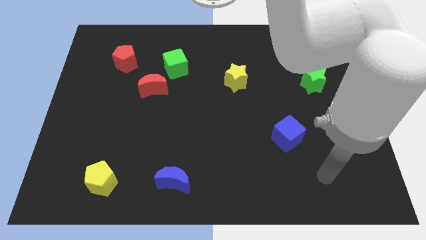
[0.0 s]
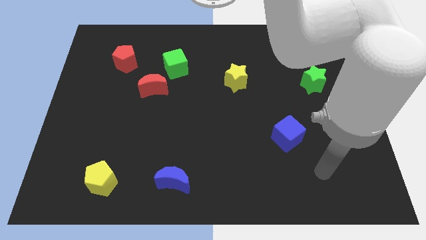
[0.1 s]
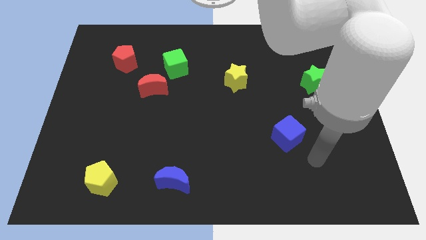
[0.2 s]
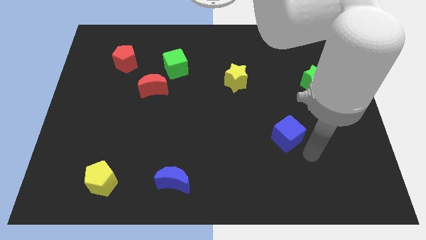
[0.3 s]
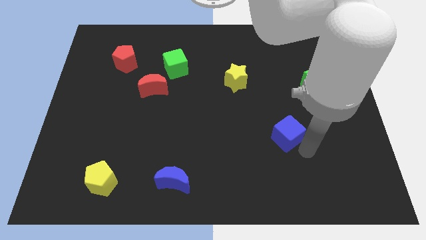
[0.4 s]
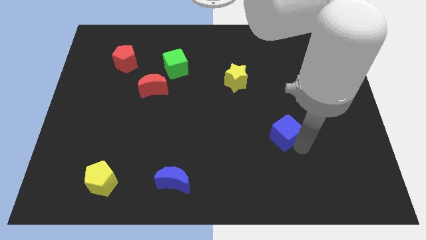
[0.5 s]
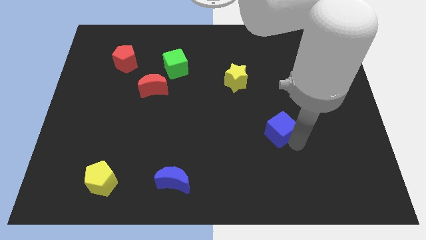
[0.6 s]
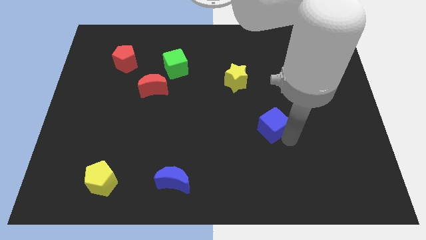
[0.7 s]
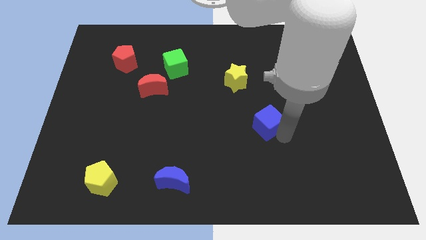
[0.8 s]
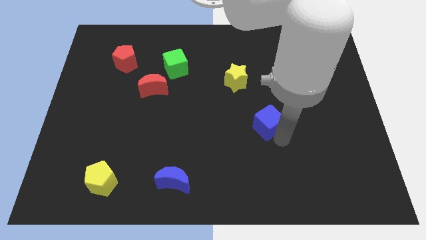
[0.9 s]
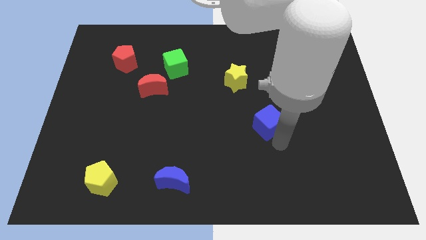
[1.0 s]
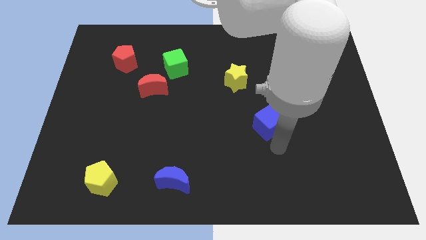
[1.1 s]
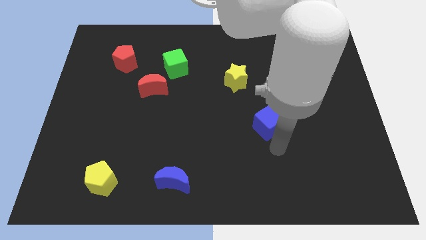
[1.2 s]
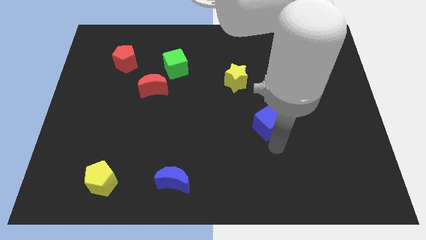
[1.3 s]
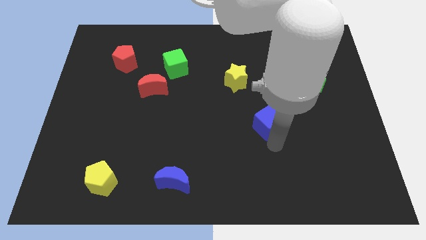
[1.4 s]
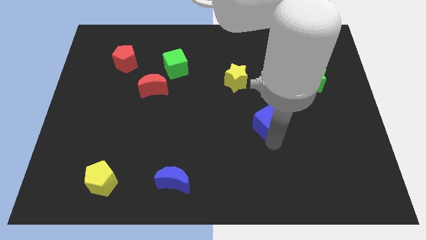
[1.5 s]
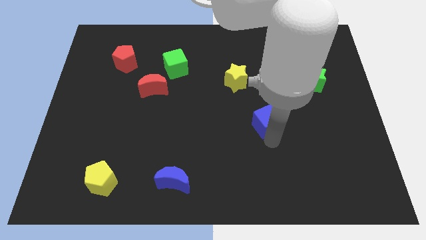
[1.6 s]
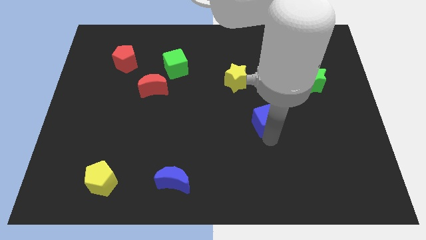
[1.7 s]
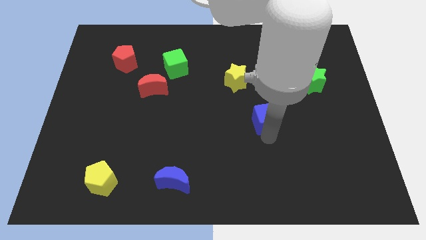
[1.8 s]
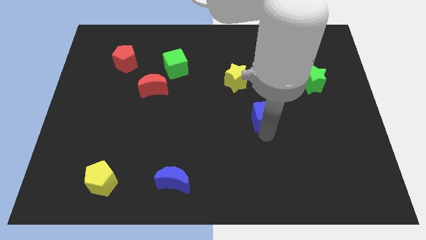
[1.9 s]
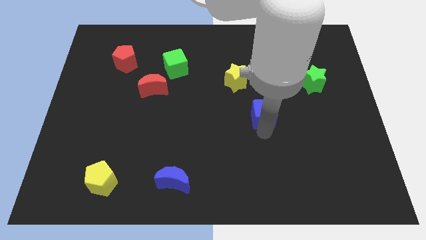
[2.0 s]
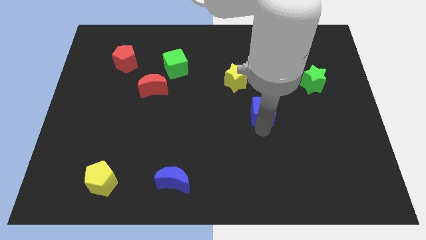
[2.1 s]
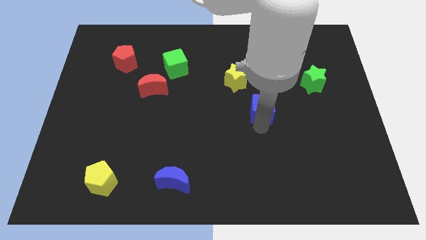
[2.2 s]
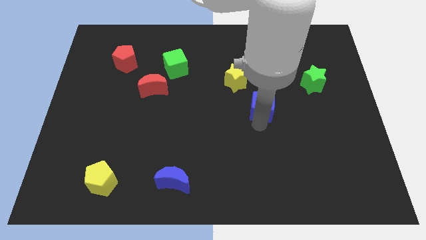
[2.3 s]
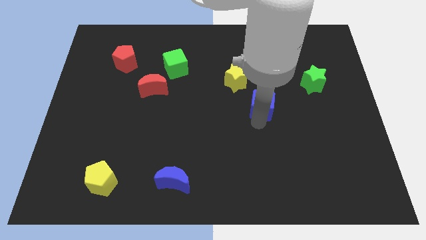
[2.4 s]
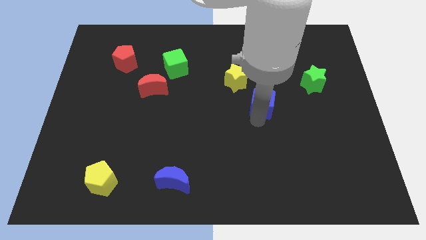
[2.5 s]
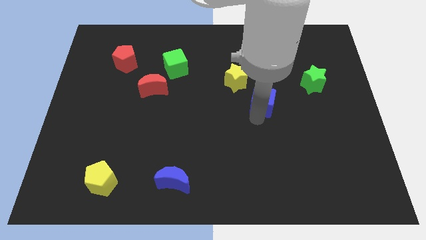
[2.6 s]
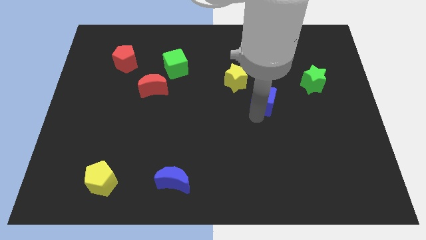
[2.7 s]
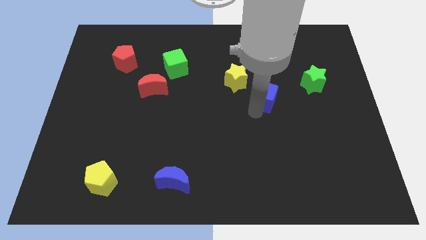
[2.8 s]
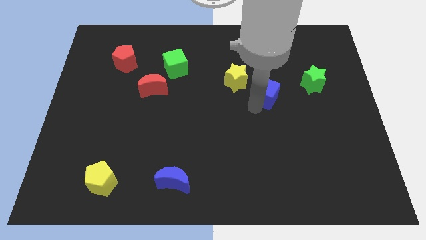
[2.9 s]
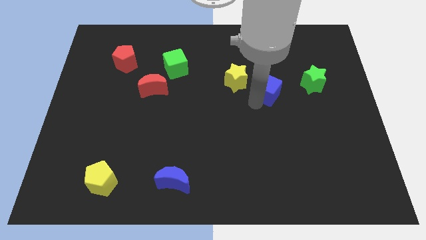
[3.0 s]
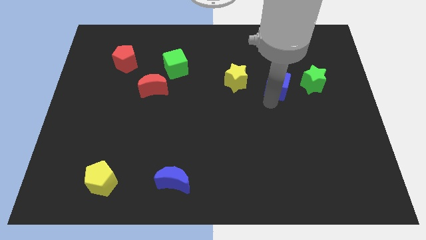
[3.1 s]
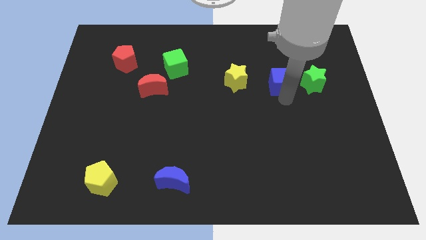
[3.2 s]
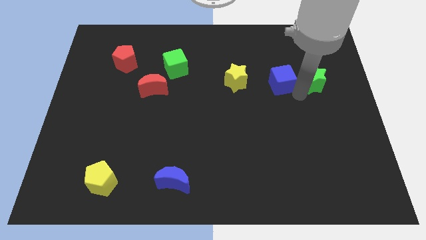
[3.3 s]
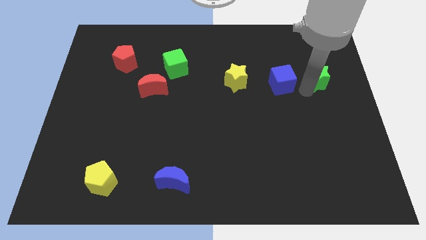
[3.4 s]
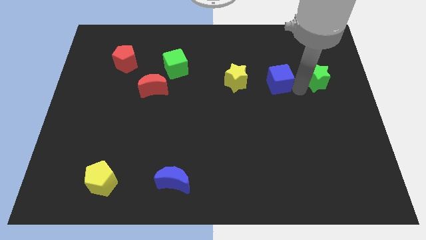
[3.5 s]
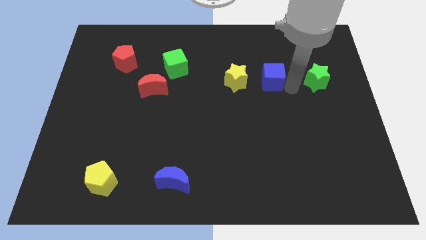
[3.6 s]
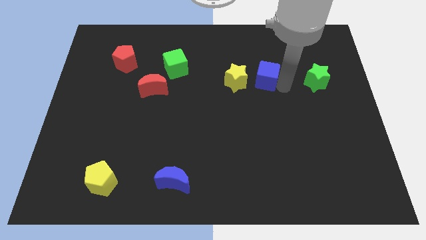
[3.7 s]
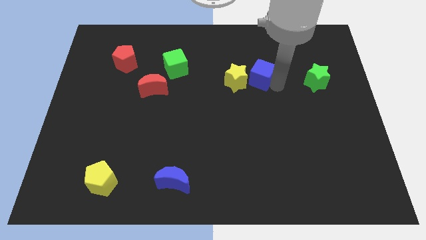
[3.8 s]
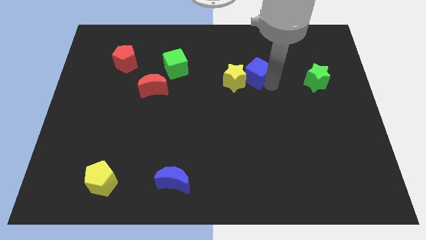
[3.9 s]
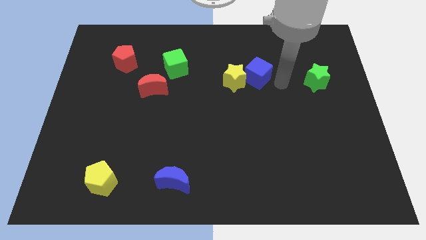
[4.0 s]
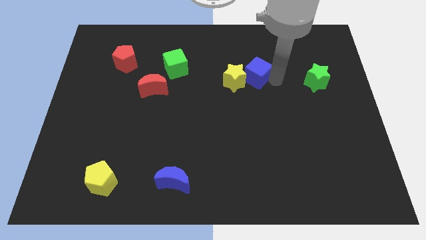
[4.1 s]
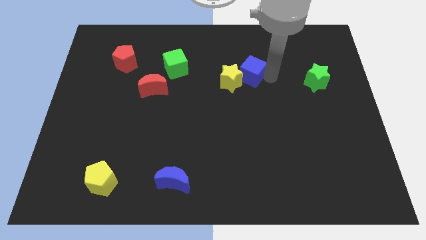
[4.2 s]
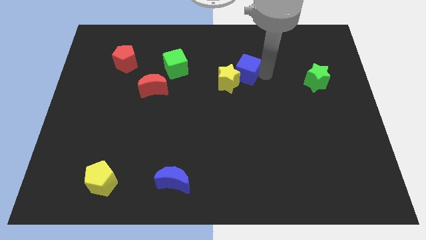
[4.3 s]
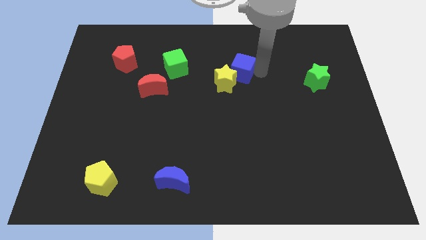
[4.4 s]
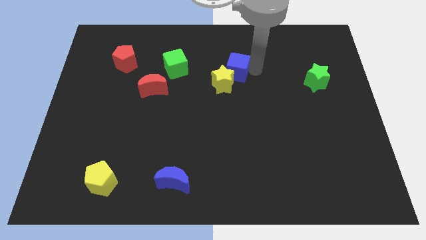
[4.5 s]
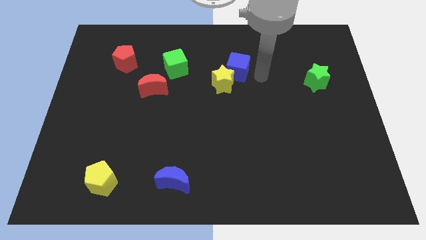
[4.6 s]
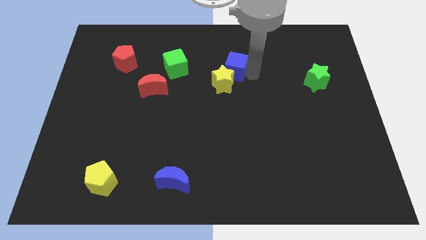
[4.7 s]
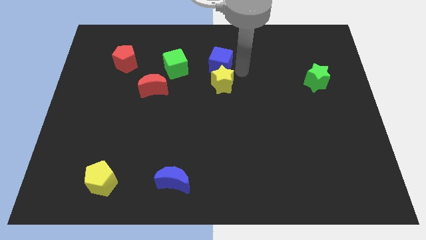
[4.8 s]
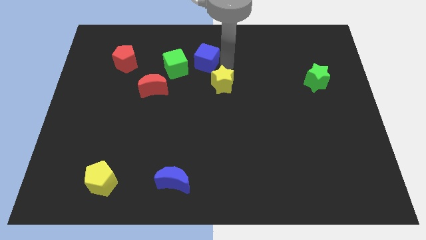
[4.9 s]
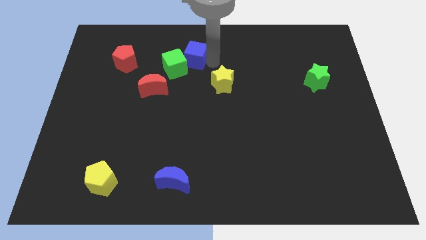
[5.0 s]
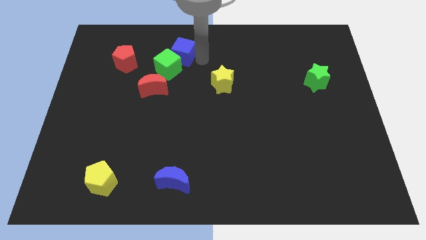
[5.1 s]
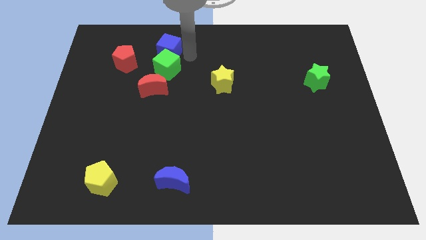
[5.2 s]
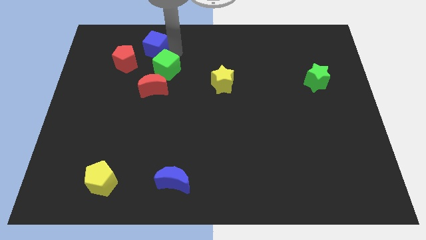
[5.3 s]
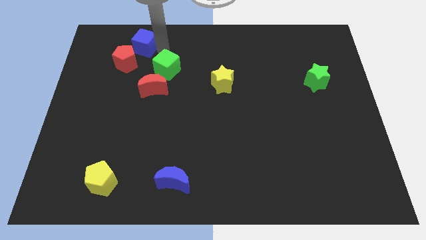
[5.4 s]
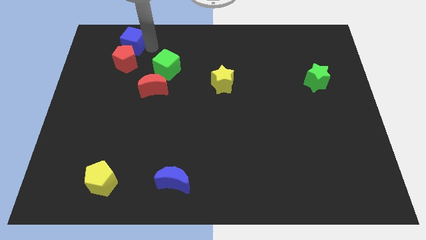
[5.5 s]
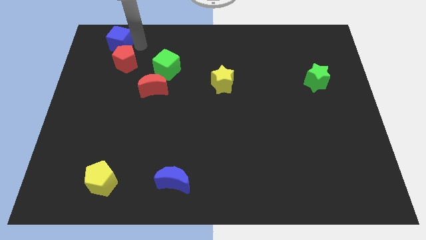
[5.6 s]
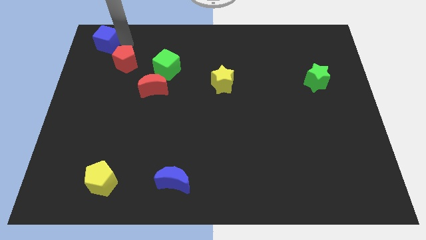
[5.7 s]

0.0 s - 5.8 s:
push the blue cube to the upper left corner

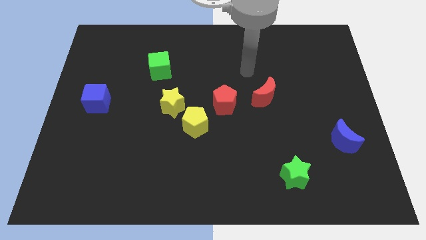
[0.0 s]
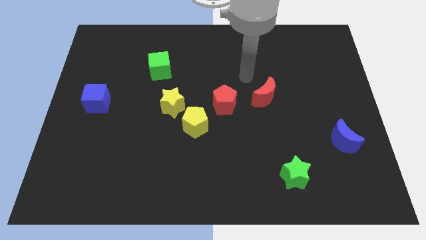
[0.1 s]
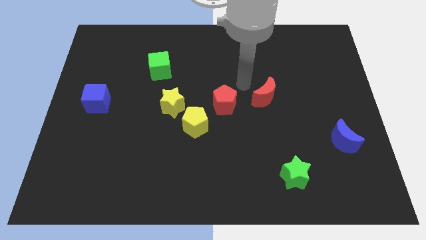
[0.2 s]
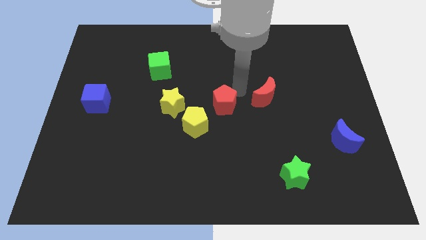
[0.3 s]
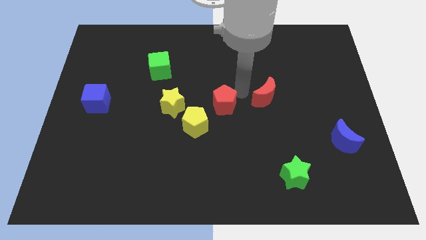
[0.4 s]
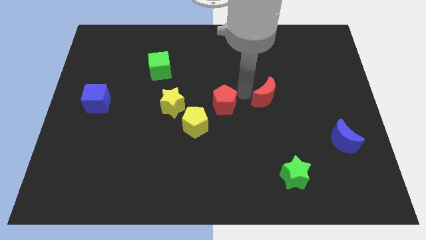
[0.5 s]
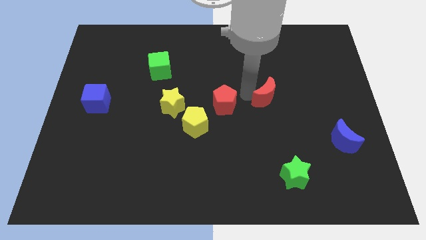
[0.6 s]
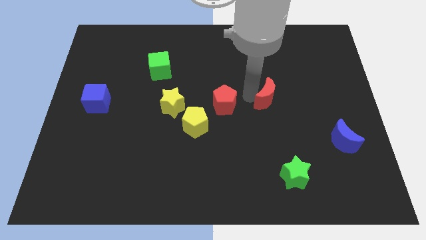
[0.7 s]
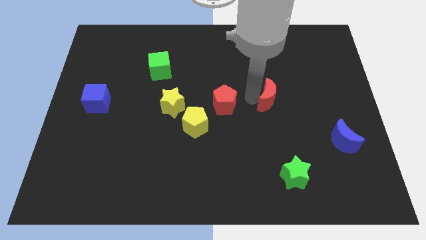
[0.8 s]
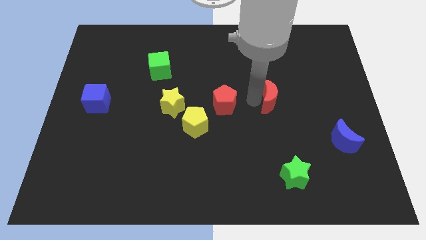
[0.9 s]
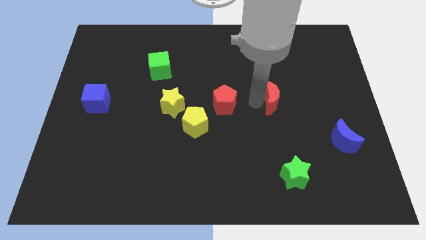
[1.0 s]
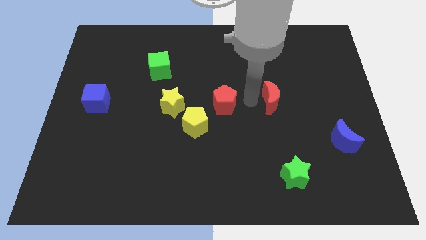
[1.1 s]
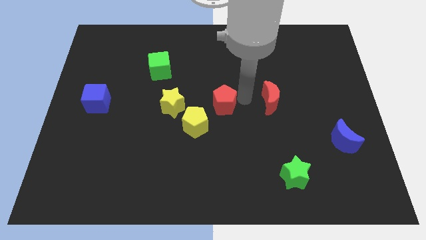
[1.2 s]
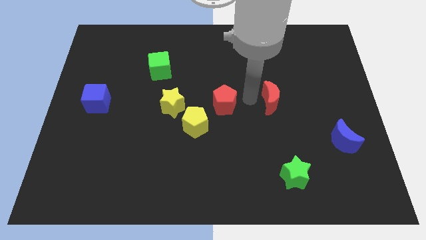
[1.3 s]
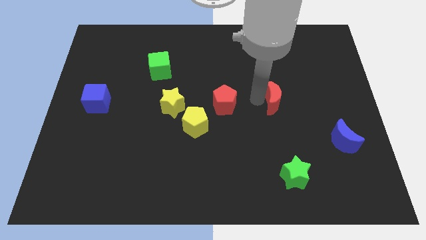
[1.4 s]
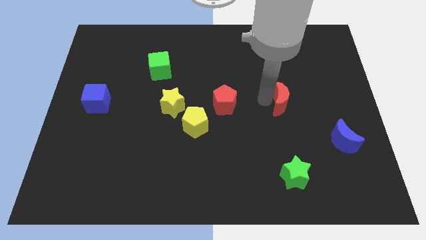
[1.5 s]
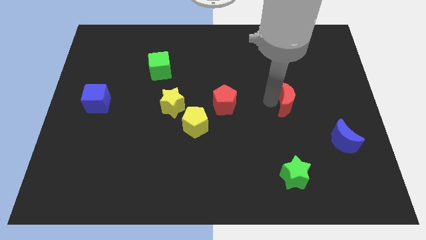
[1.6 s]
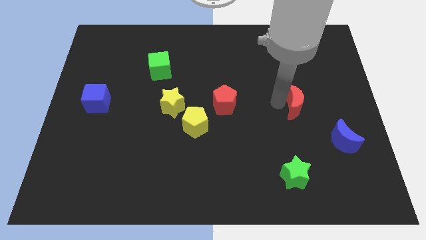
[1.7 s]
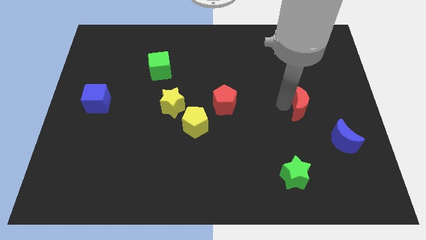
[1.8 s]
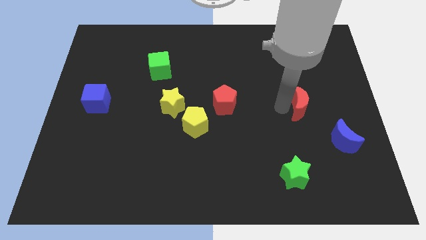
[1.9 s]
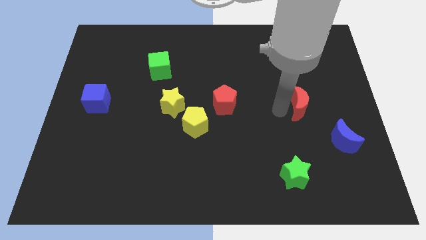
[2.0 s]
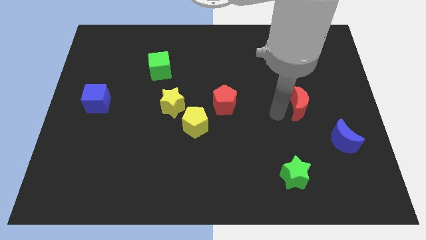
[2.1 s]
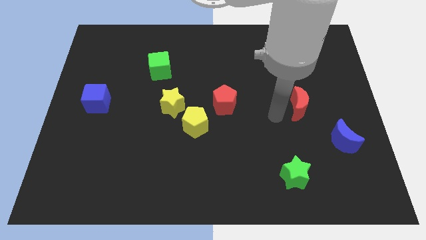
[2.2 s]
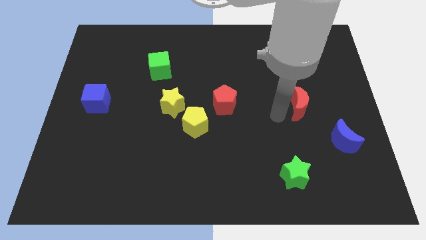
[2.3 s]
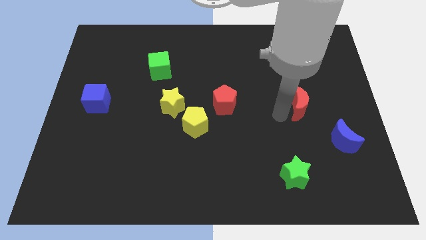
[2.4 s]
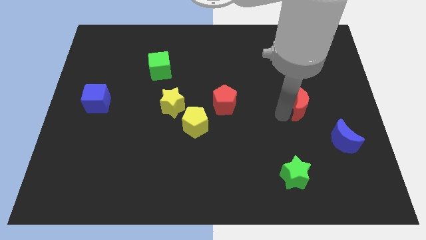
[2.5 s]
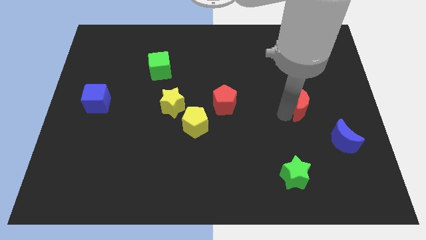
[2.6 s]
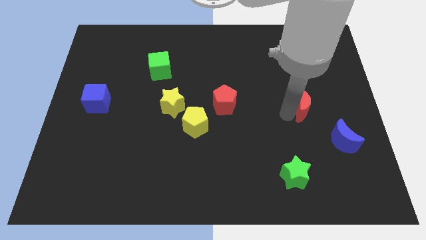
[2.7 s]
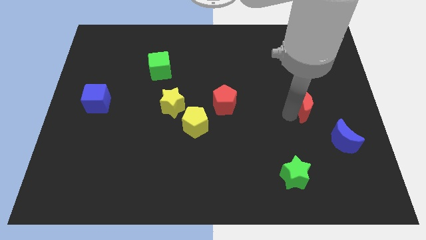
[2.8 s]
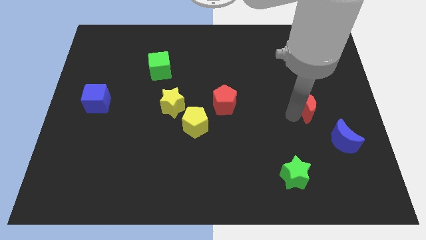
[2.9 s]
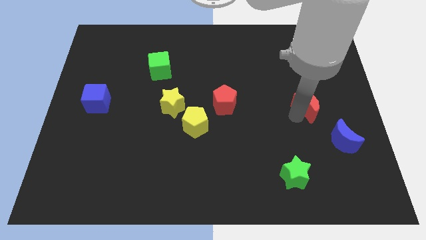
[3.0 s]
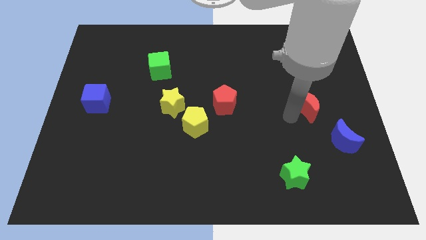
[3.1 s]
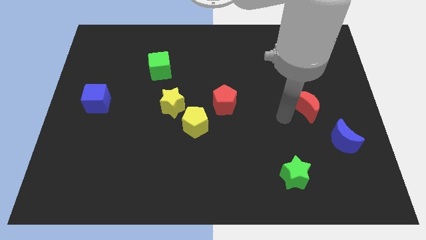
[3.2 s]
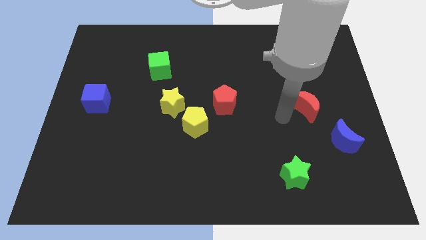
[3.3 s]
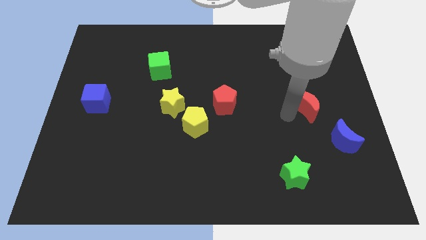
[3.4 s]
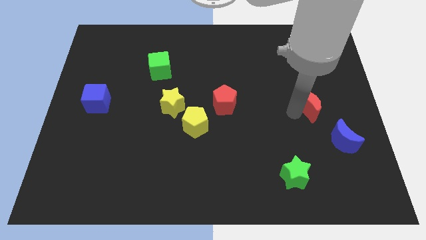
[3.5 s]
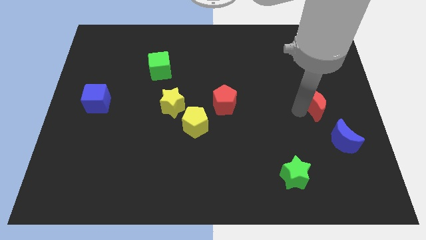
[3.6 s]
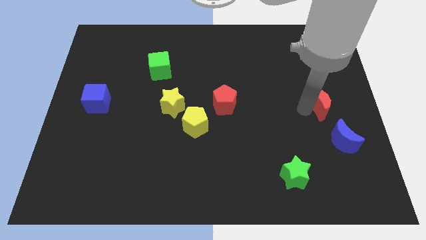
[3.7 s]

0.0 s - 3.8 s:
put the red moon to the center right
